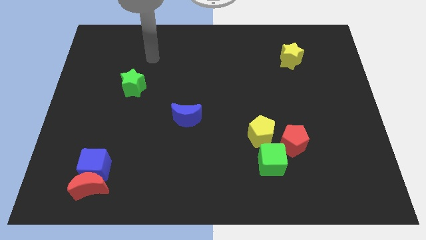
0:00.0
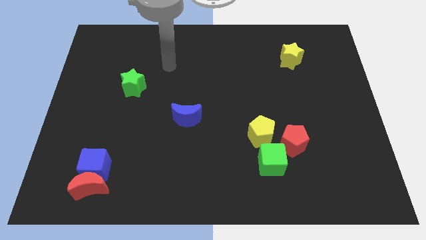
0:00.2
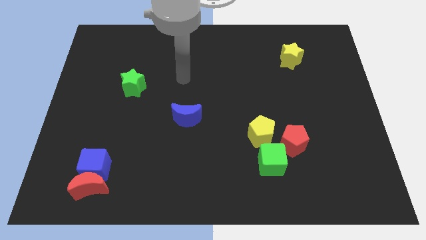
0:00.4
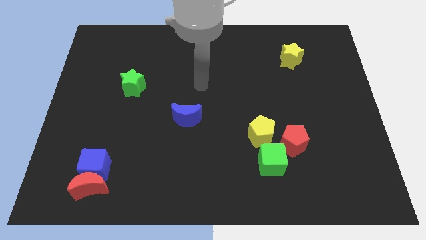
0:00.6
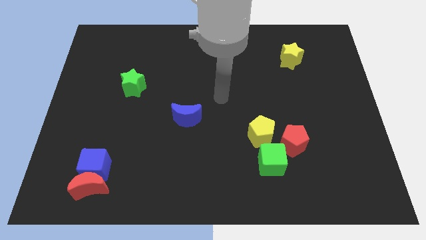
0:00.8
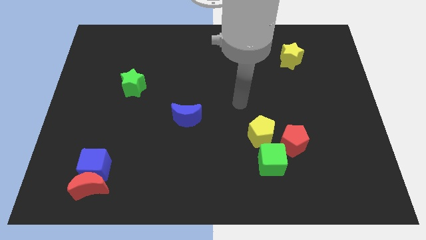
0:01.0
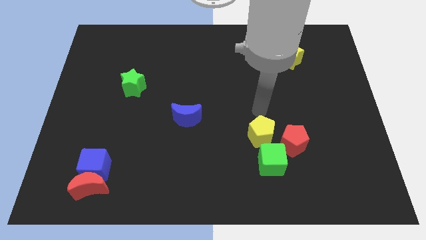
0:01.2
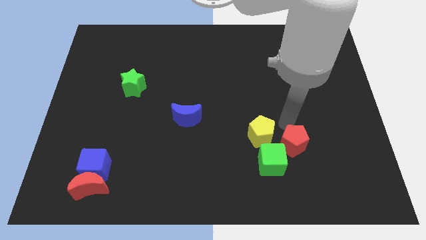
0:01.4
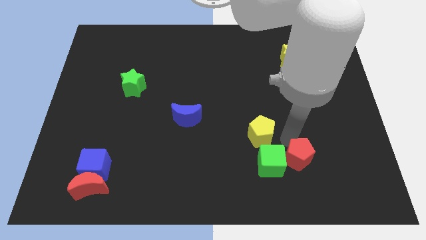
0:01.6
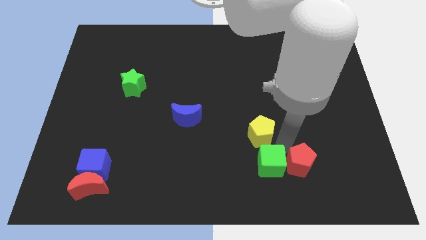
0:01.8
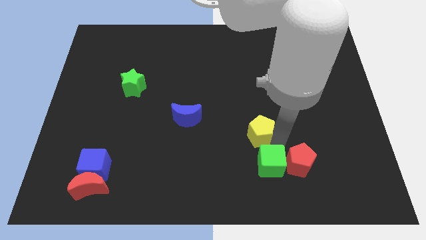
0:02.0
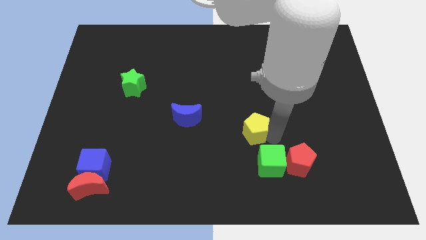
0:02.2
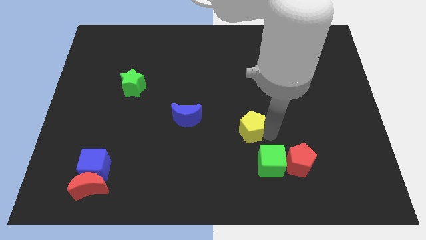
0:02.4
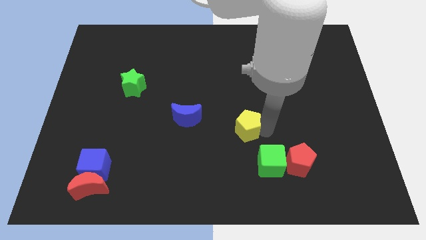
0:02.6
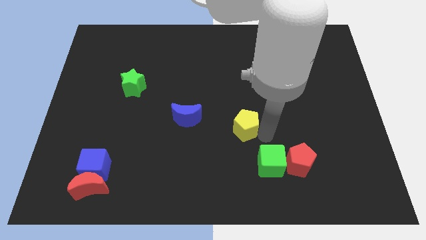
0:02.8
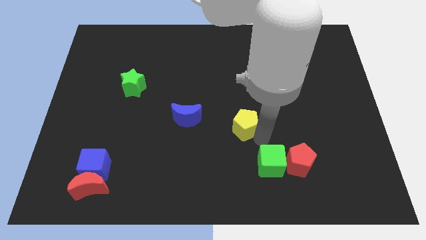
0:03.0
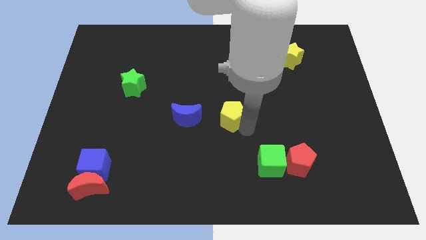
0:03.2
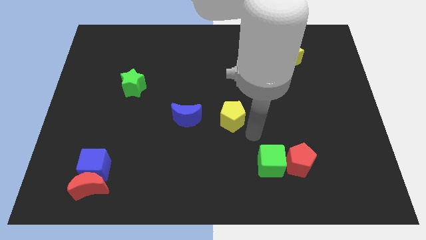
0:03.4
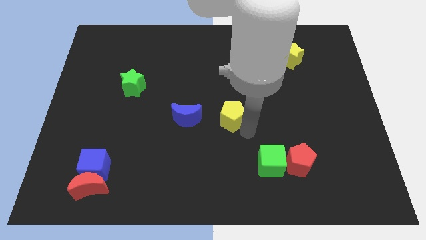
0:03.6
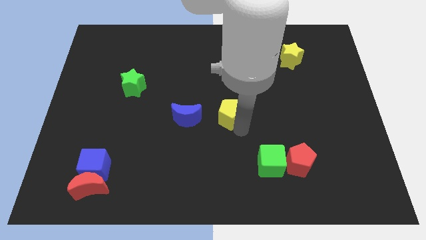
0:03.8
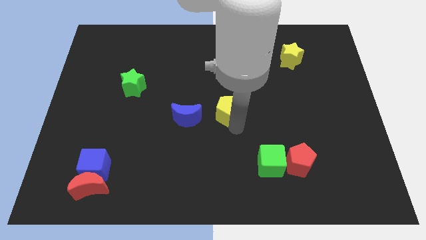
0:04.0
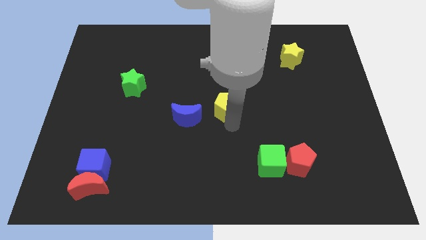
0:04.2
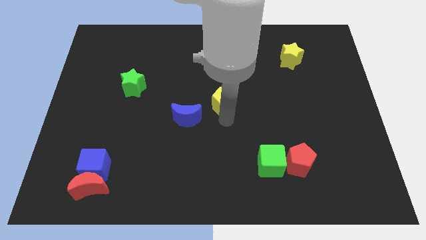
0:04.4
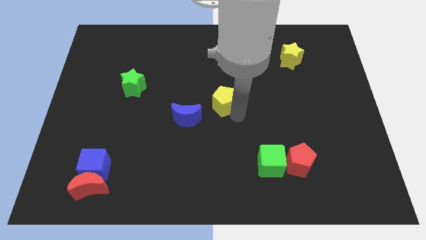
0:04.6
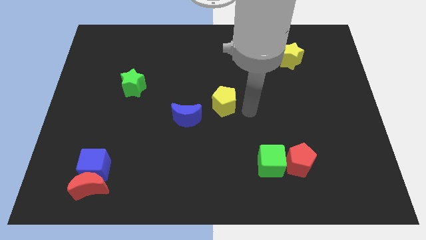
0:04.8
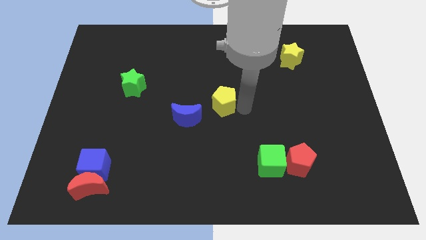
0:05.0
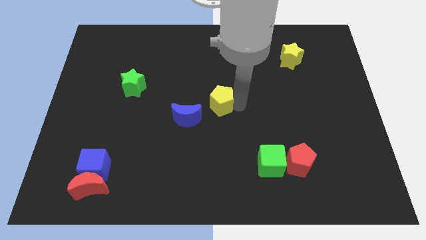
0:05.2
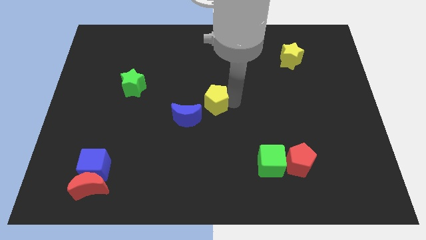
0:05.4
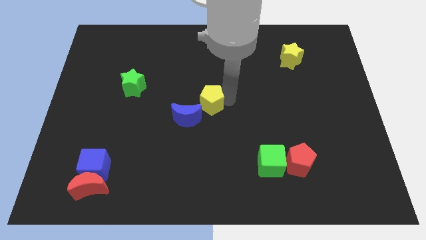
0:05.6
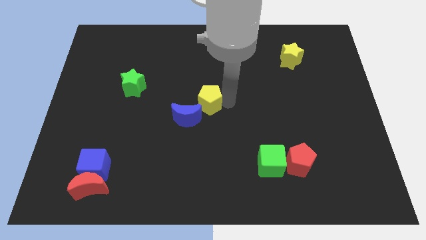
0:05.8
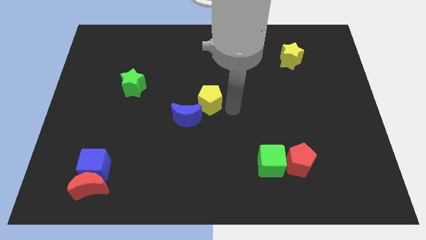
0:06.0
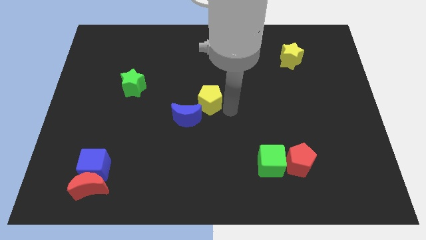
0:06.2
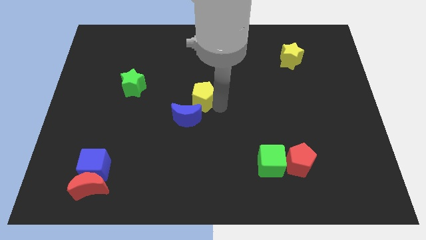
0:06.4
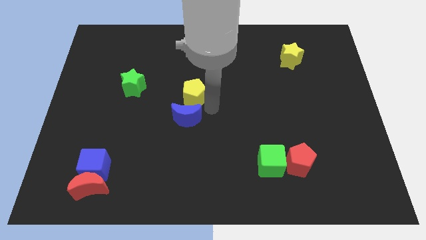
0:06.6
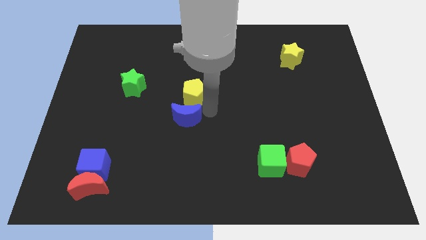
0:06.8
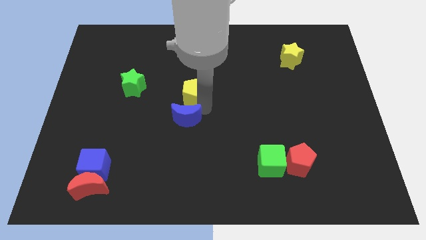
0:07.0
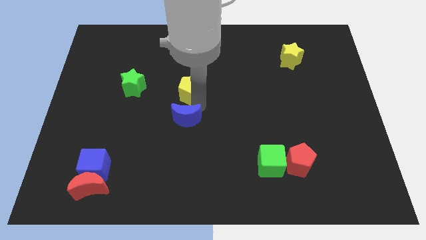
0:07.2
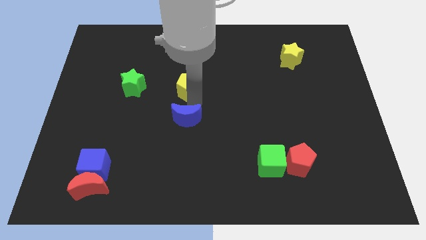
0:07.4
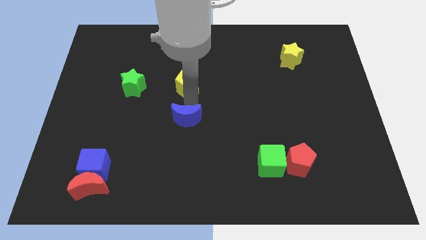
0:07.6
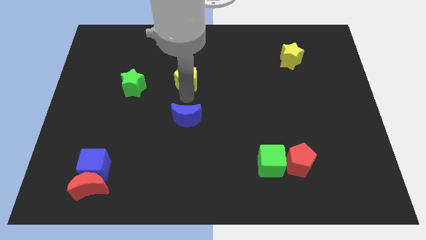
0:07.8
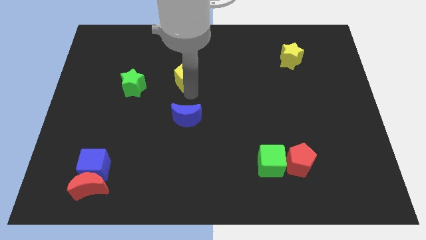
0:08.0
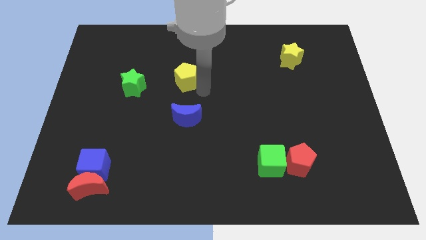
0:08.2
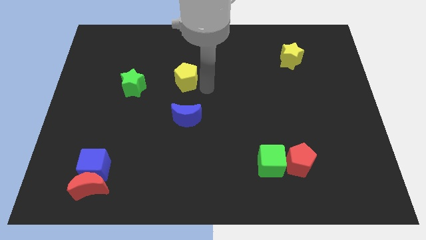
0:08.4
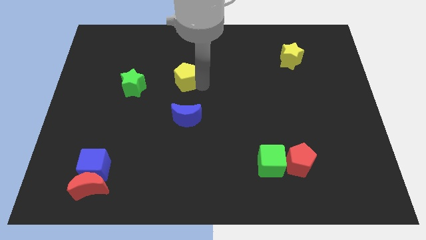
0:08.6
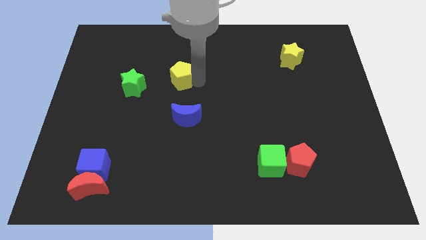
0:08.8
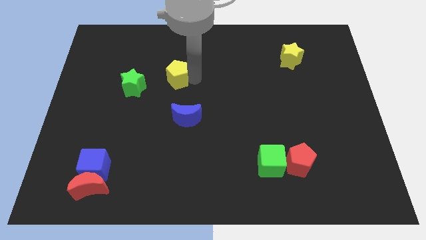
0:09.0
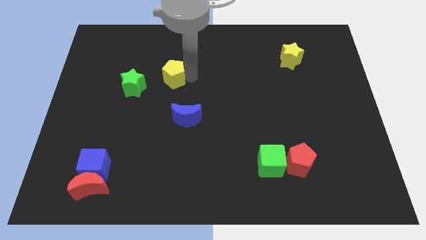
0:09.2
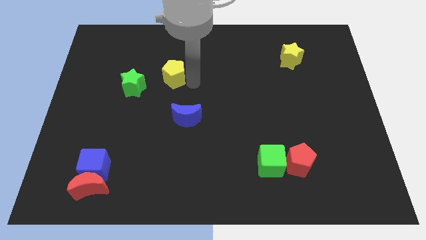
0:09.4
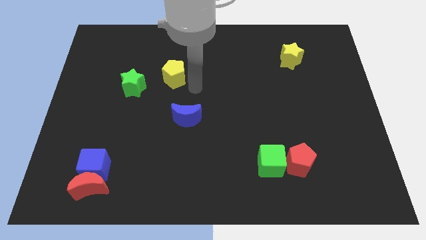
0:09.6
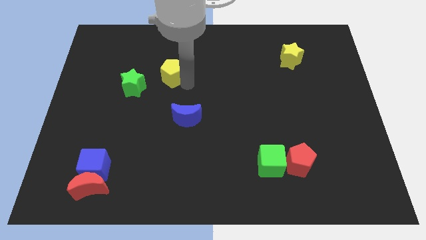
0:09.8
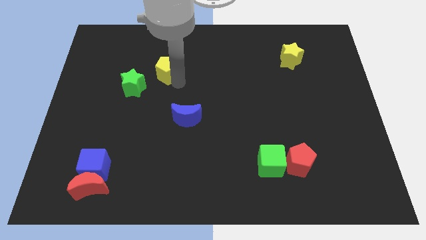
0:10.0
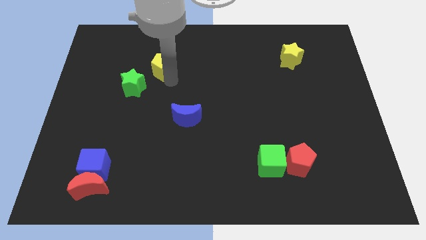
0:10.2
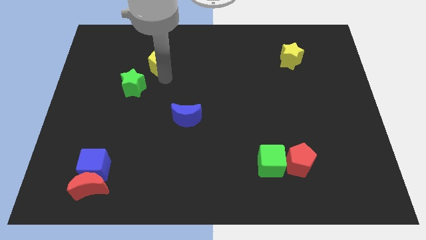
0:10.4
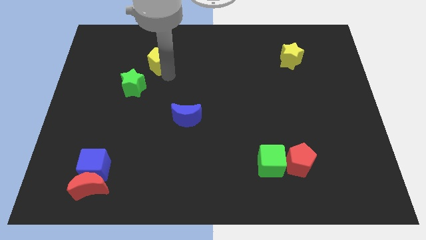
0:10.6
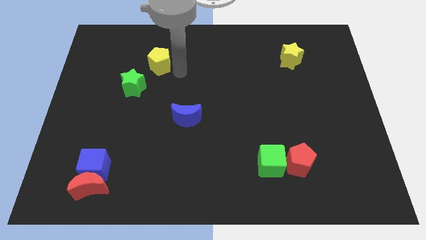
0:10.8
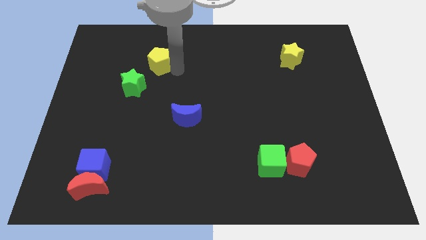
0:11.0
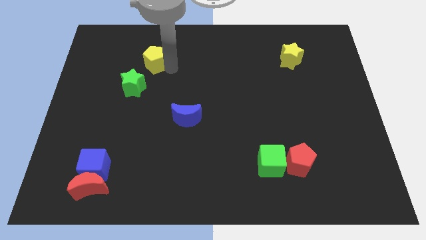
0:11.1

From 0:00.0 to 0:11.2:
put the yellow pentagon above the green star

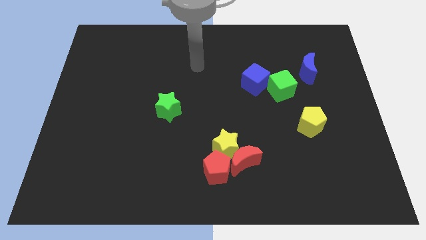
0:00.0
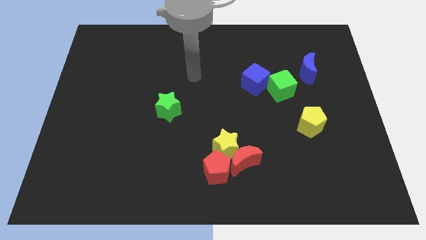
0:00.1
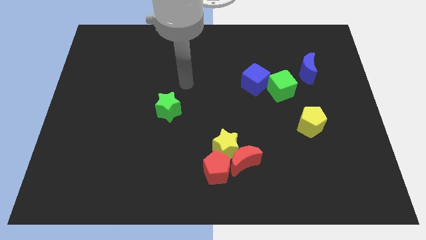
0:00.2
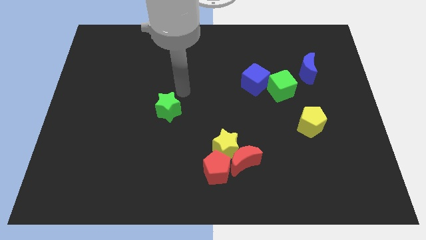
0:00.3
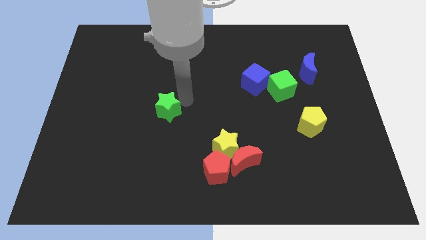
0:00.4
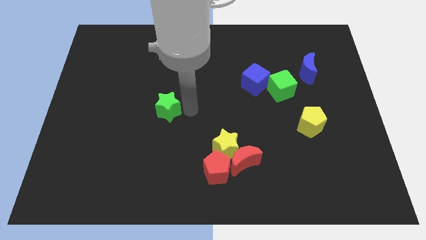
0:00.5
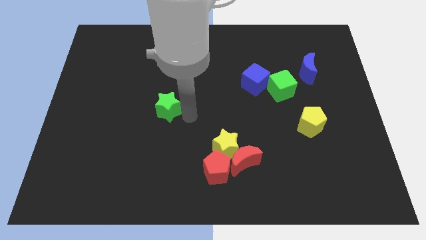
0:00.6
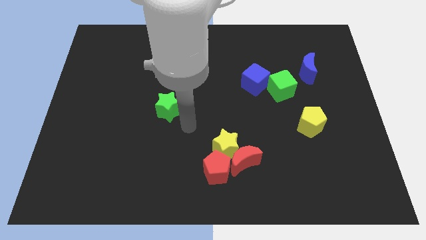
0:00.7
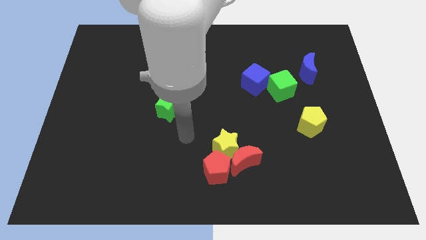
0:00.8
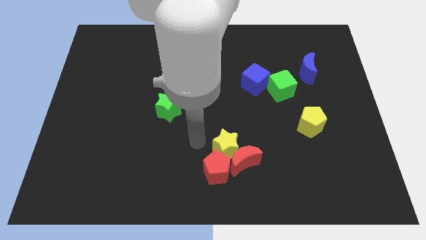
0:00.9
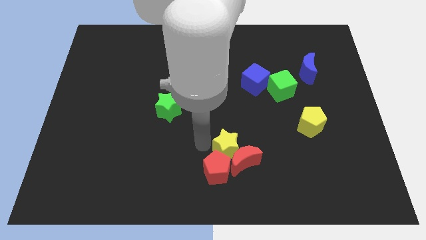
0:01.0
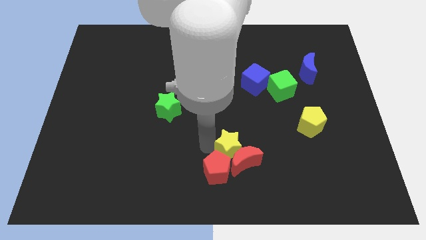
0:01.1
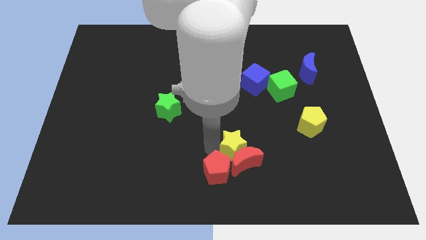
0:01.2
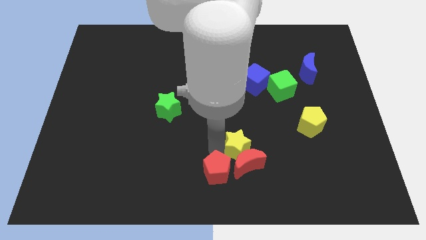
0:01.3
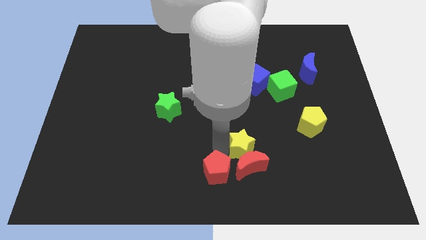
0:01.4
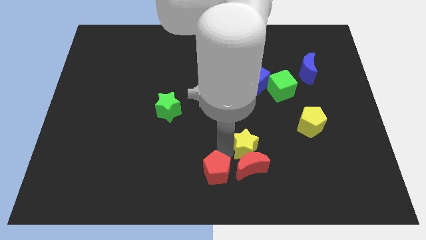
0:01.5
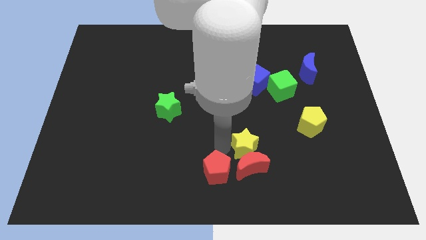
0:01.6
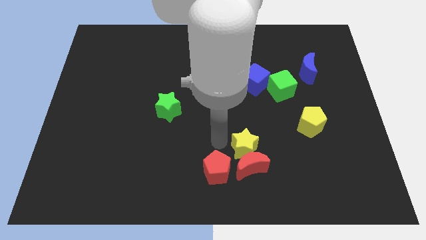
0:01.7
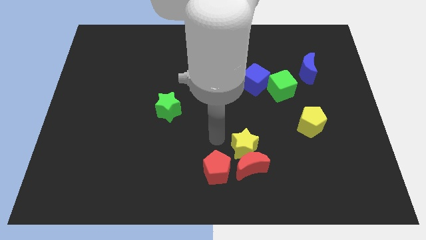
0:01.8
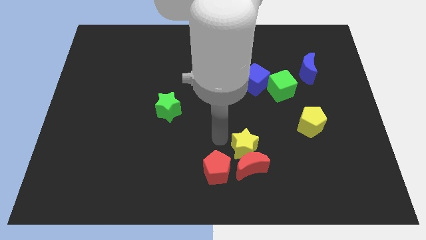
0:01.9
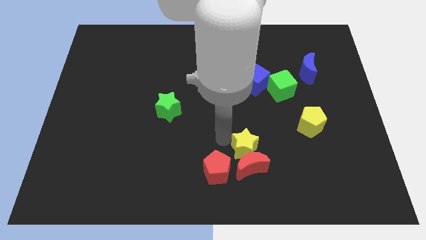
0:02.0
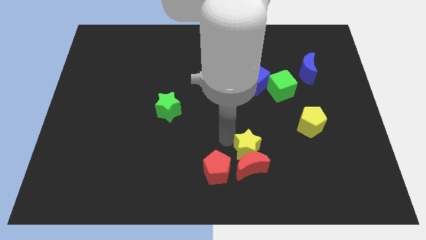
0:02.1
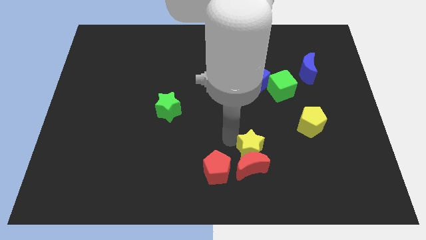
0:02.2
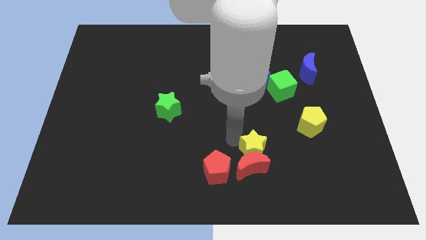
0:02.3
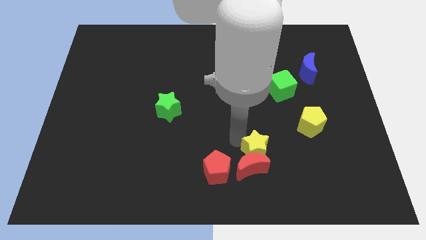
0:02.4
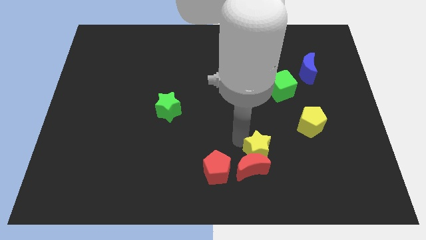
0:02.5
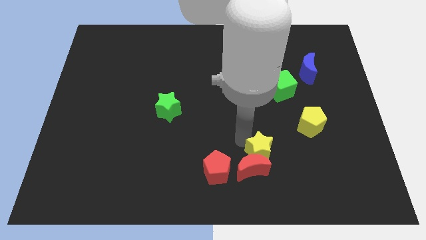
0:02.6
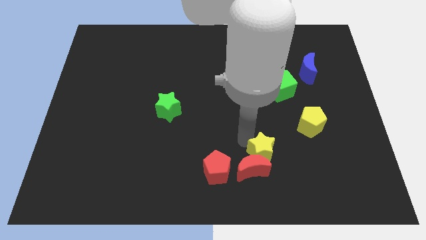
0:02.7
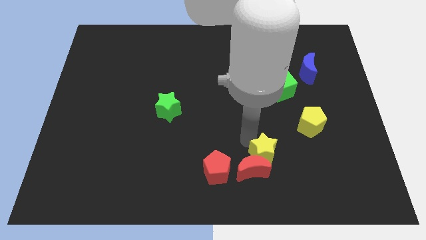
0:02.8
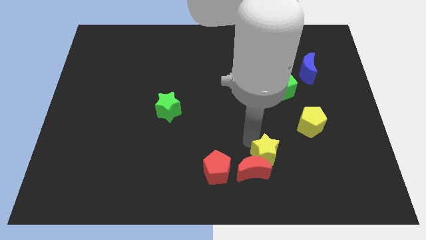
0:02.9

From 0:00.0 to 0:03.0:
slide the yellow star just right of the red moon
